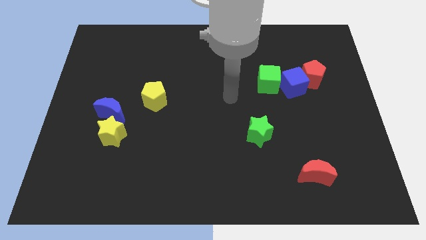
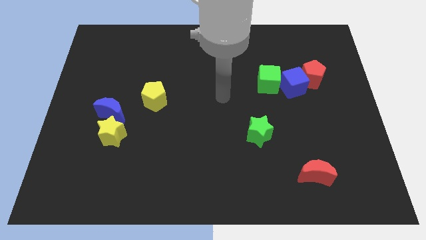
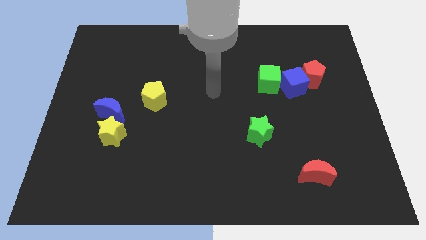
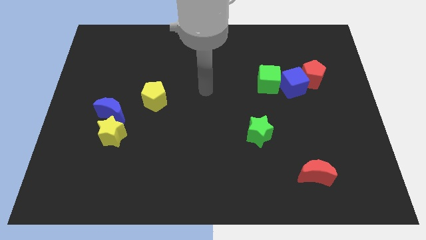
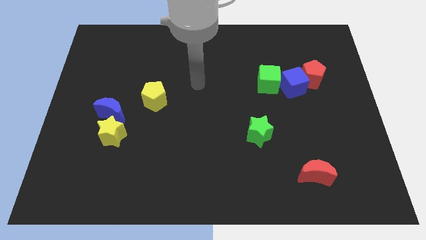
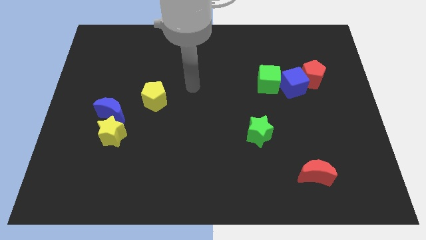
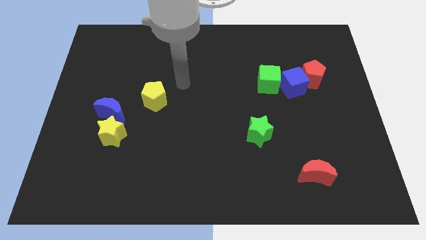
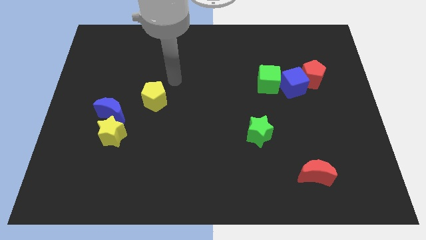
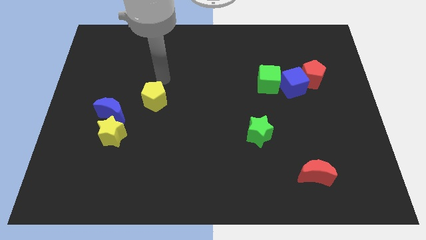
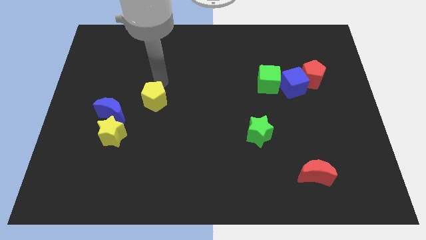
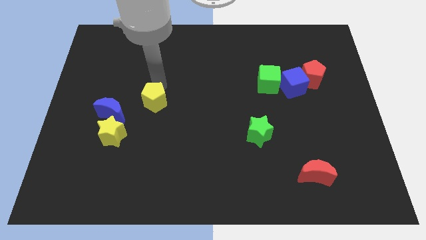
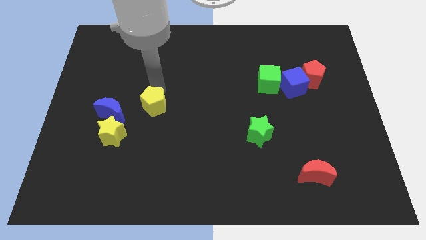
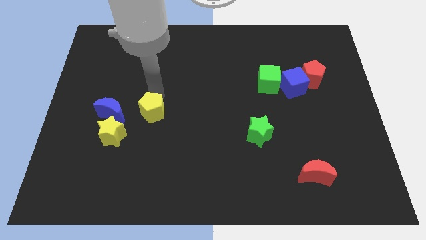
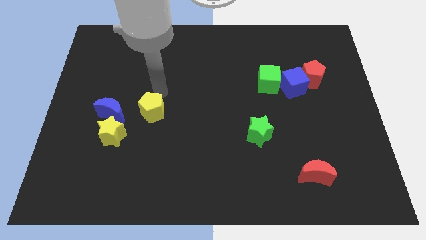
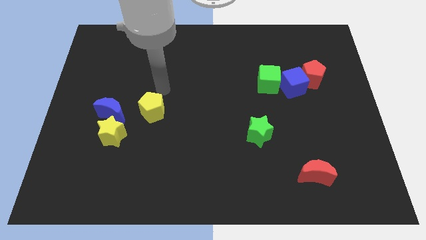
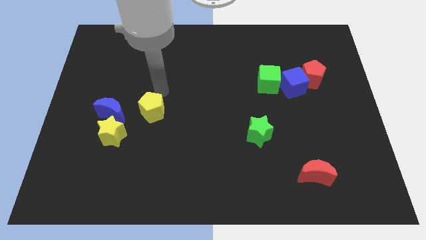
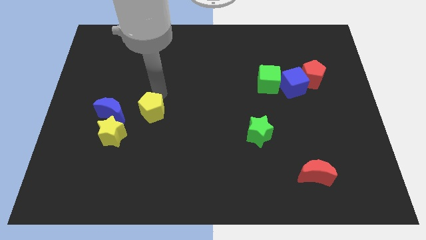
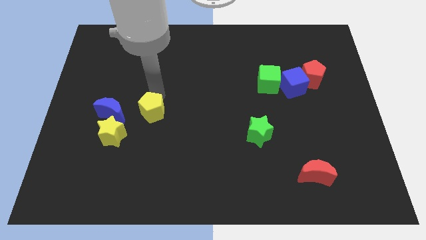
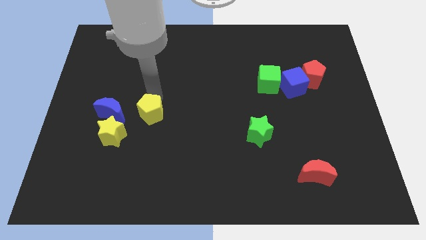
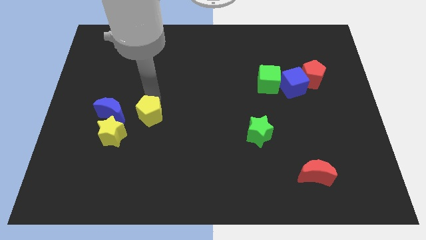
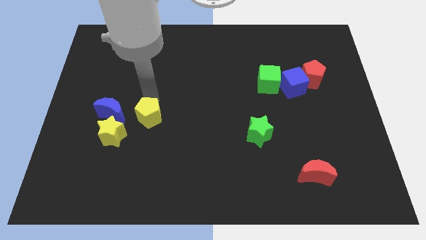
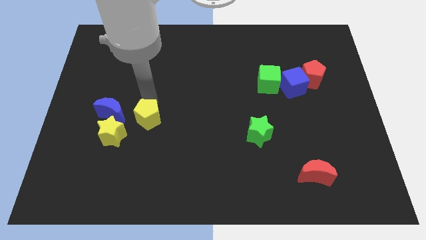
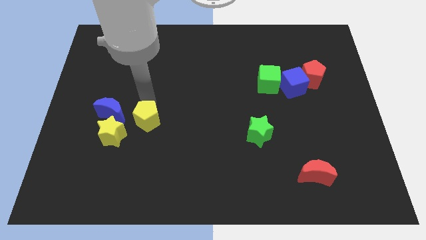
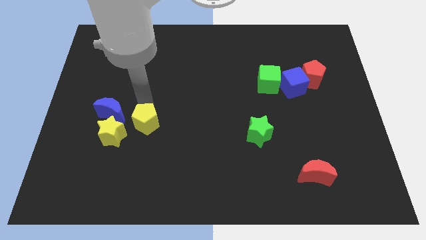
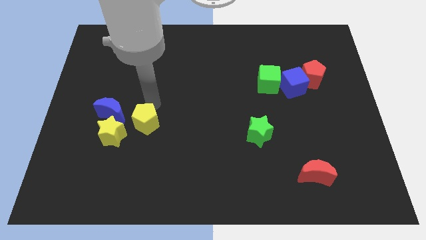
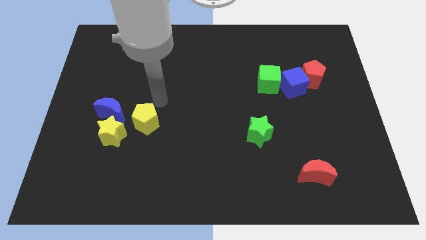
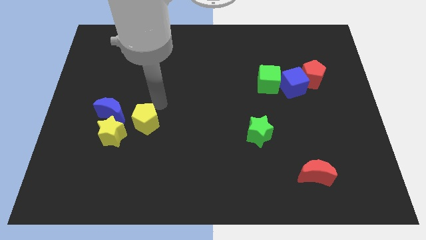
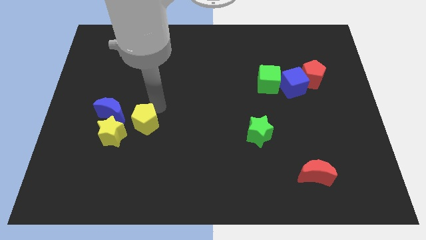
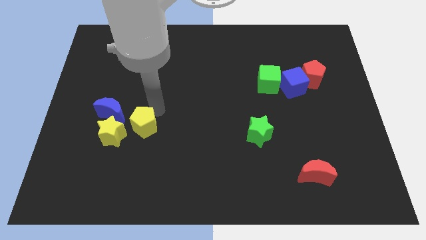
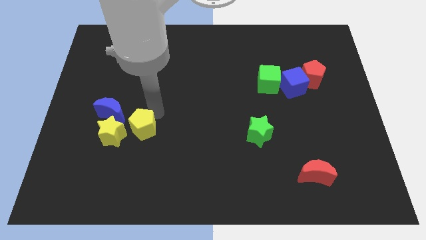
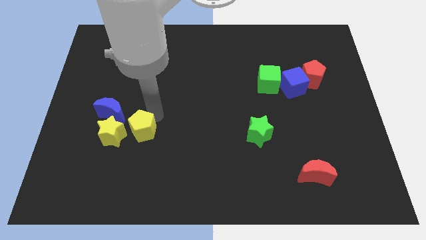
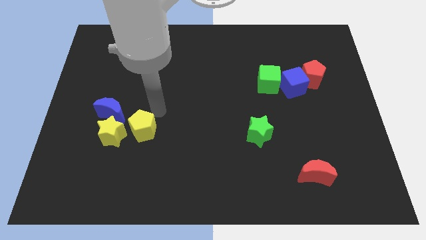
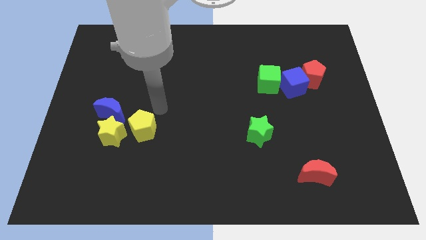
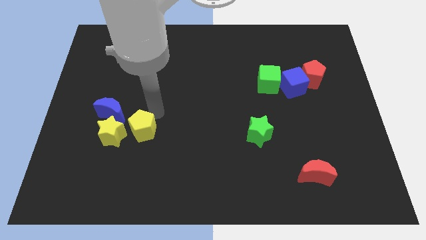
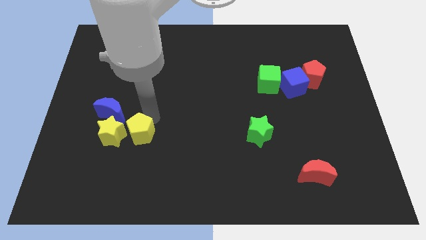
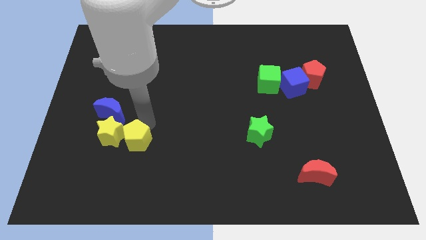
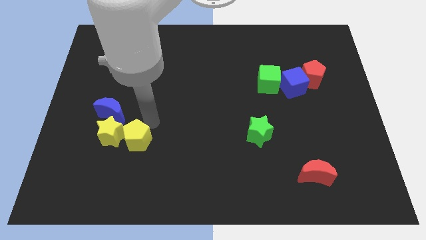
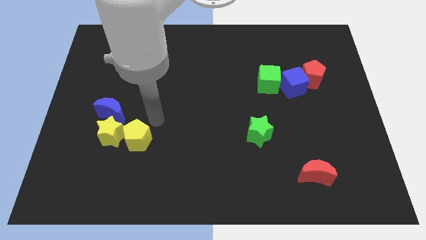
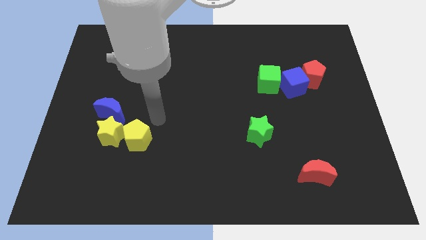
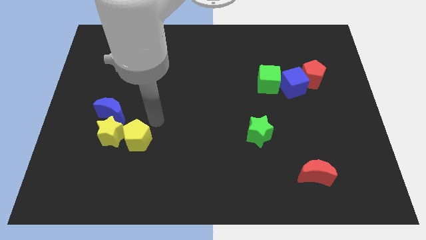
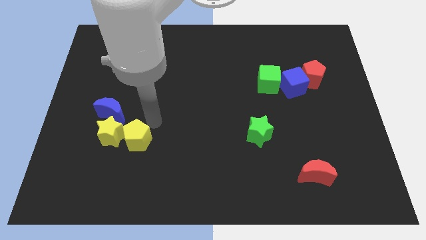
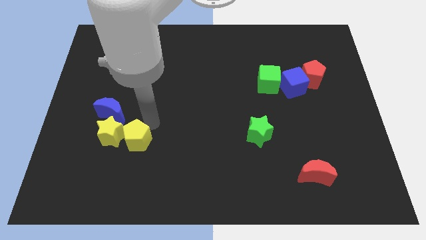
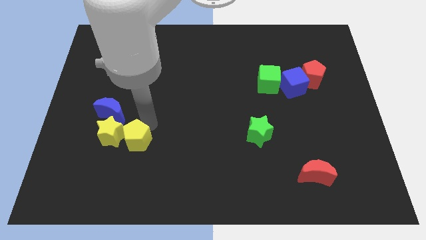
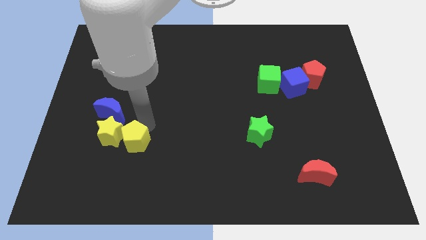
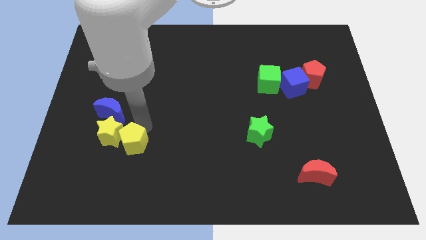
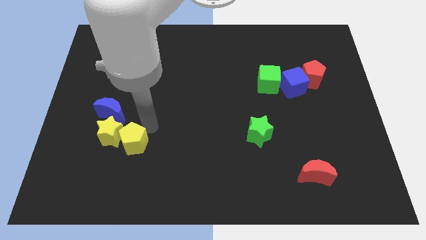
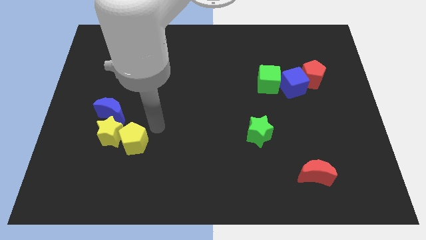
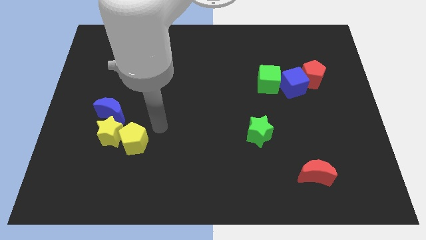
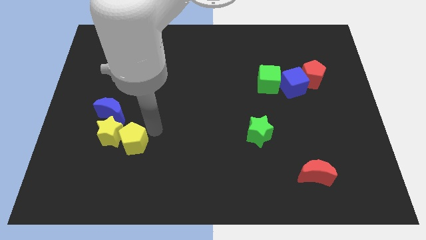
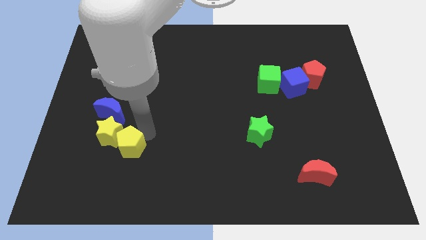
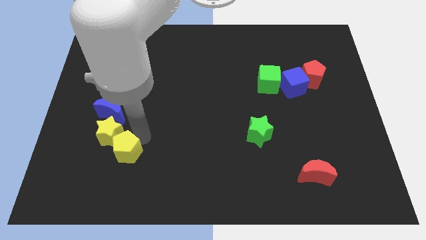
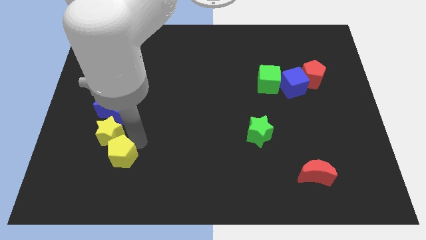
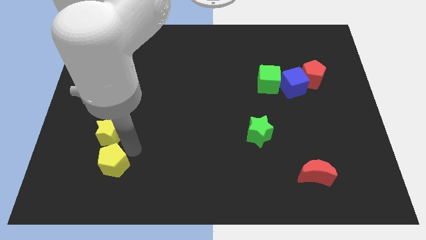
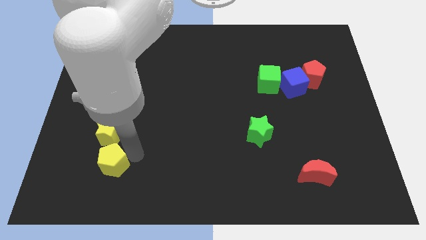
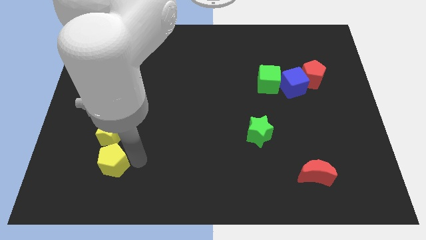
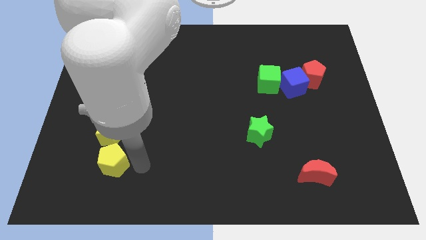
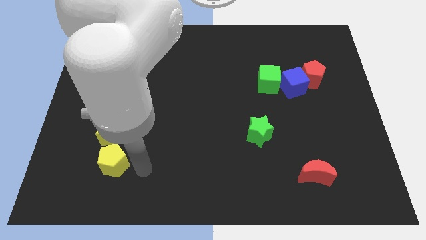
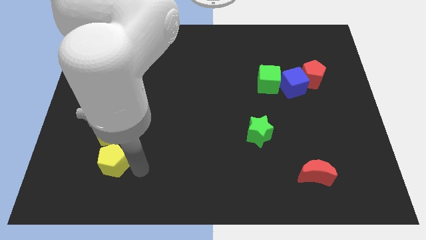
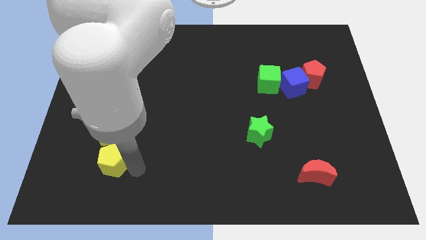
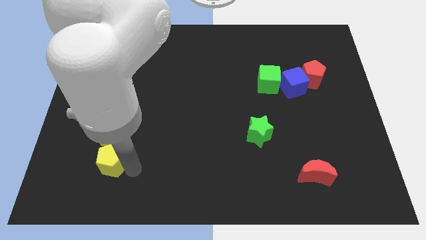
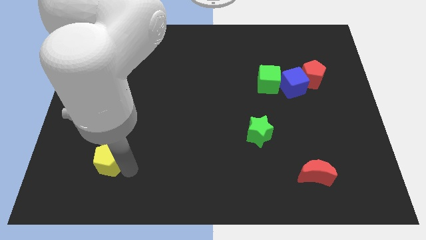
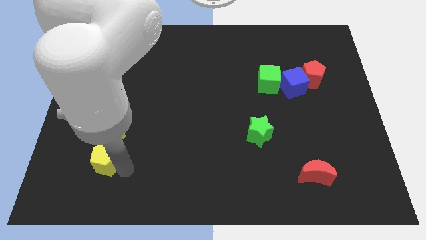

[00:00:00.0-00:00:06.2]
move the yellow pentagon to the bottom left side of the yellow star

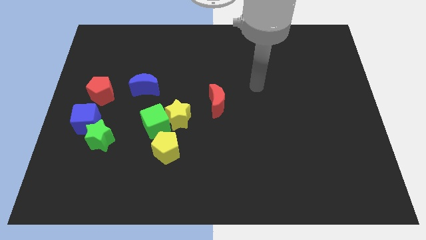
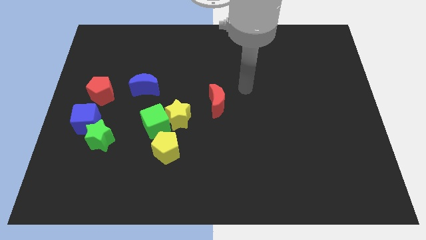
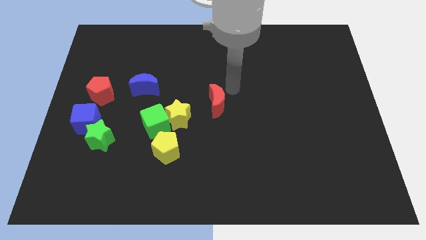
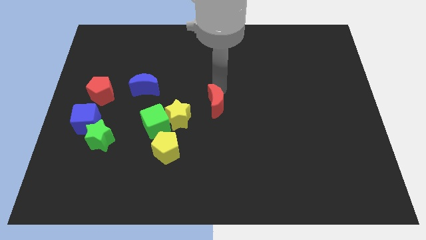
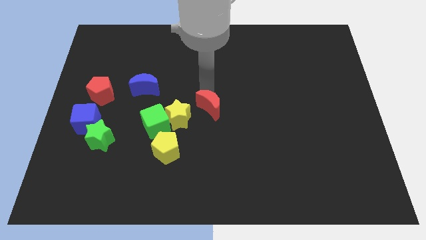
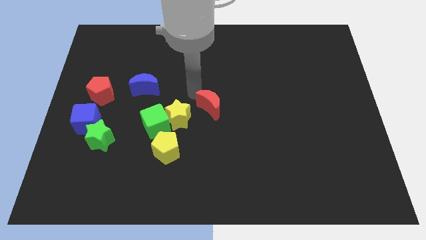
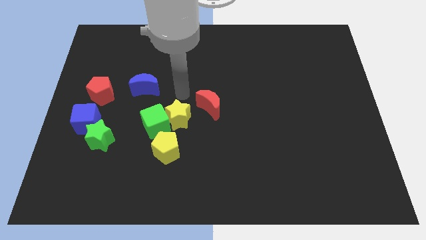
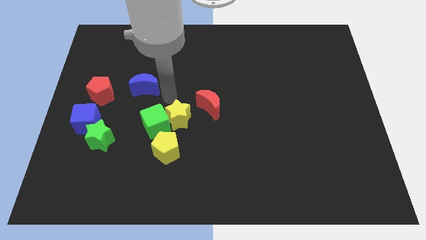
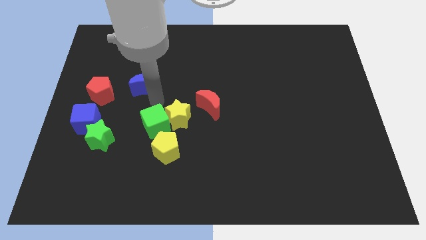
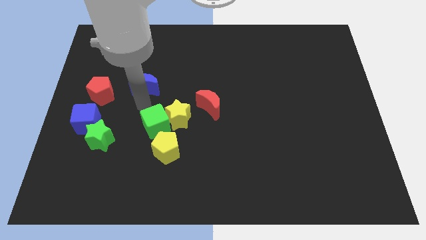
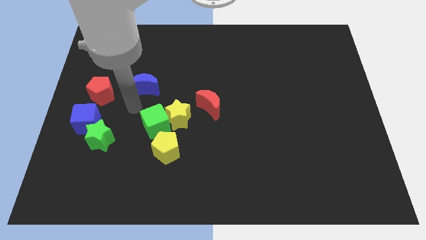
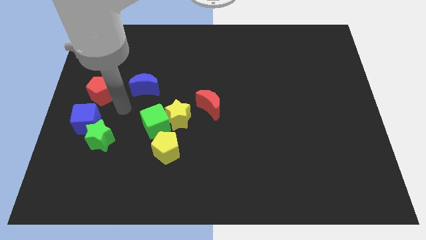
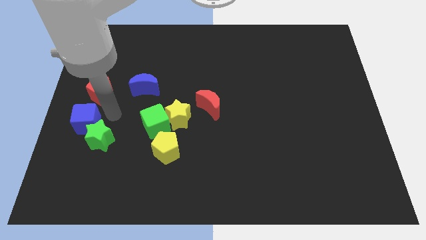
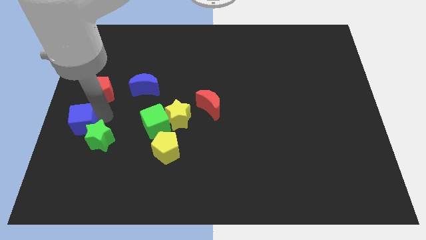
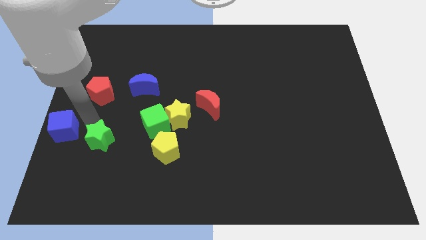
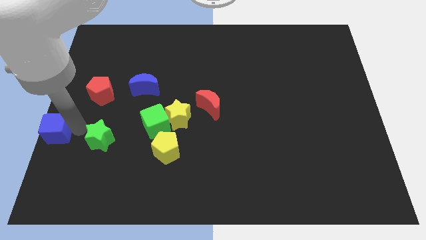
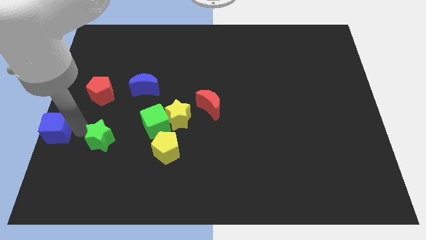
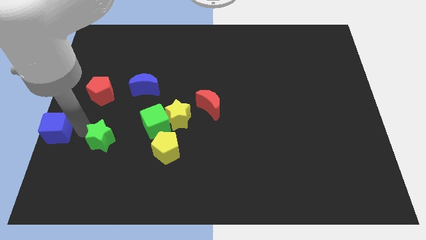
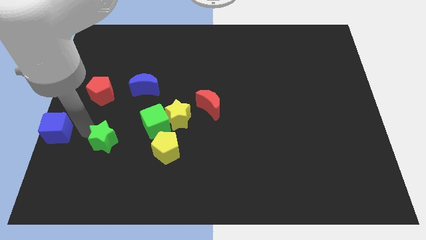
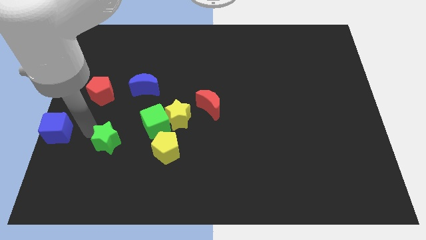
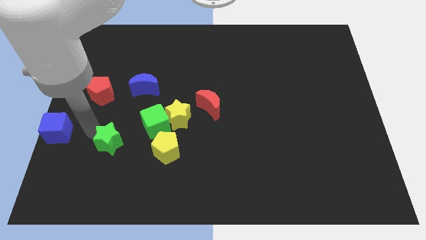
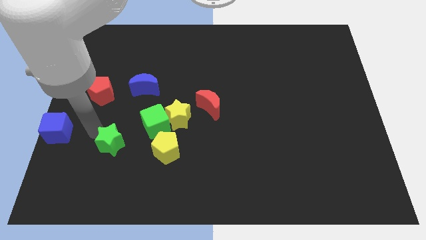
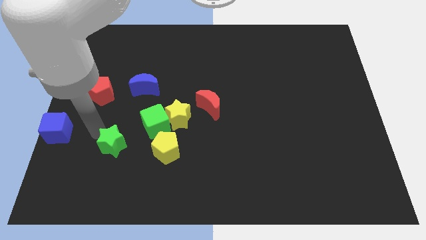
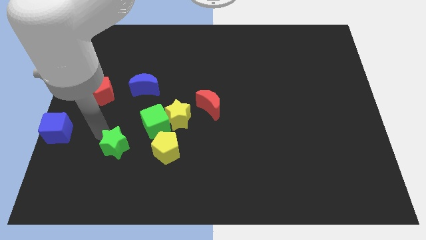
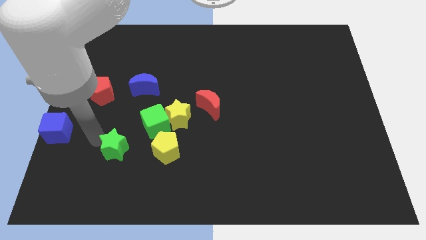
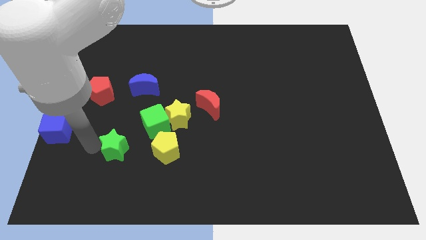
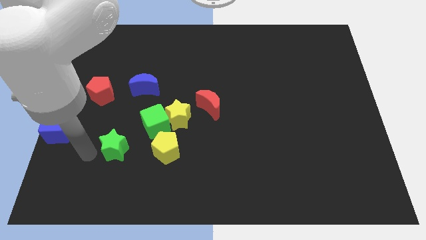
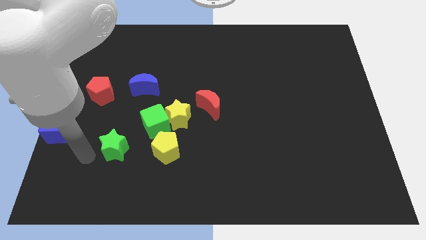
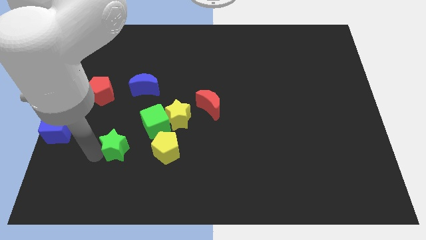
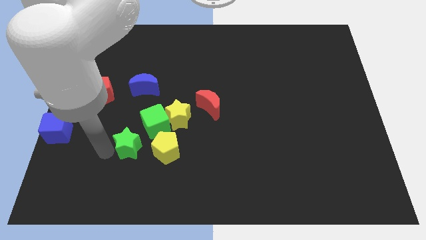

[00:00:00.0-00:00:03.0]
push the green star to the bottom left of the yellow star
